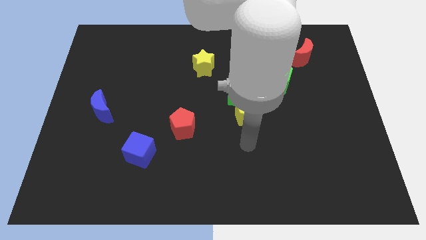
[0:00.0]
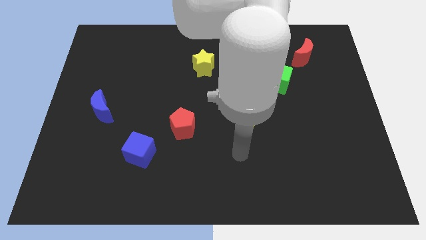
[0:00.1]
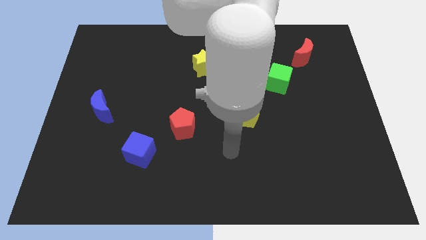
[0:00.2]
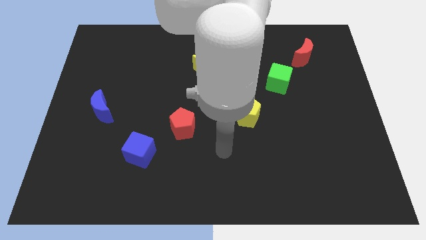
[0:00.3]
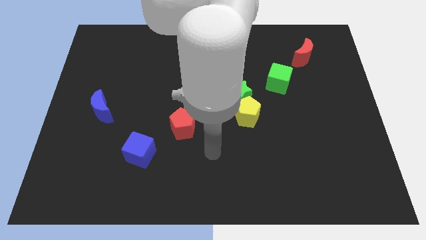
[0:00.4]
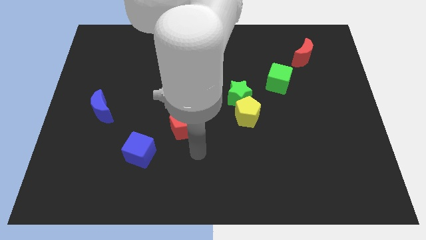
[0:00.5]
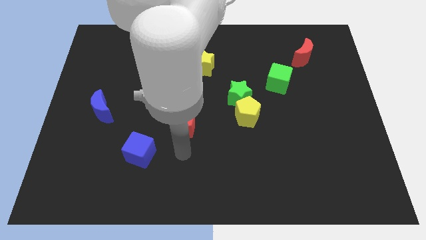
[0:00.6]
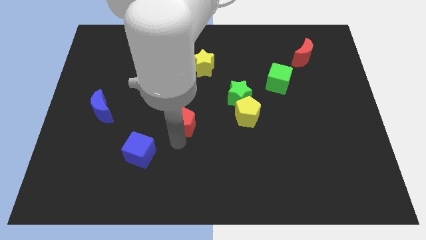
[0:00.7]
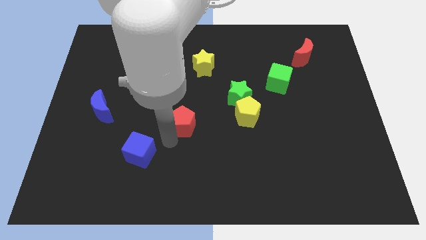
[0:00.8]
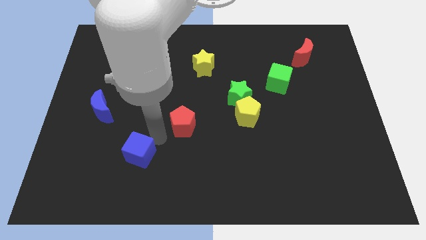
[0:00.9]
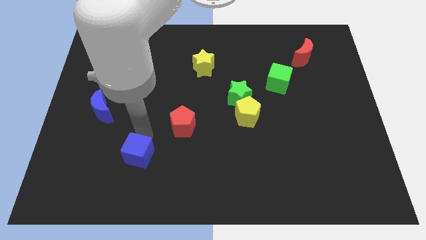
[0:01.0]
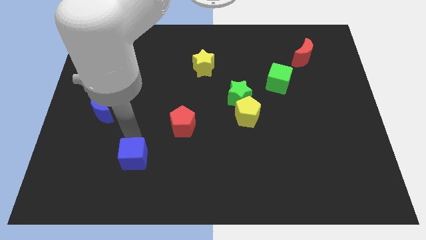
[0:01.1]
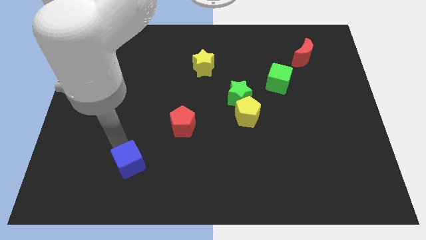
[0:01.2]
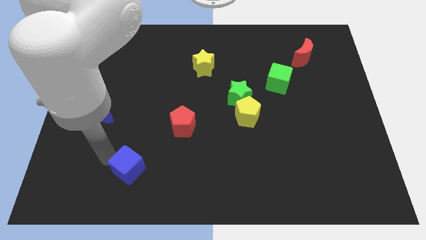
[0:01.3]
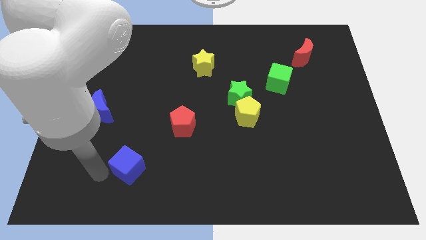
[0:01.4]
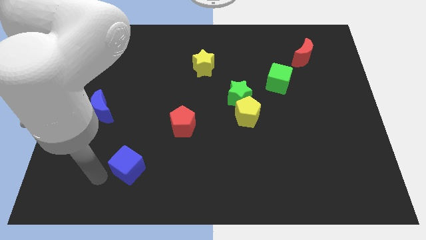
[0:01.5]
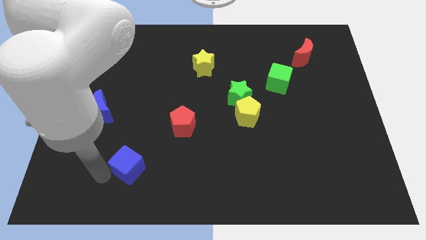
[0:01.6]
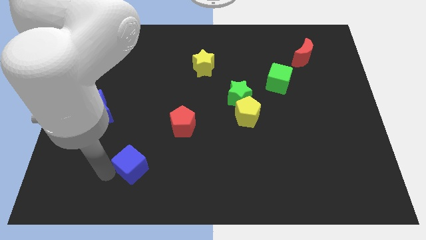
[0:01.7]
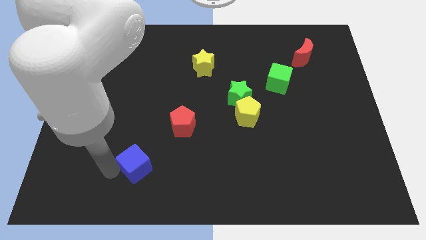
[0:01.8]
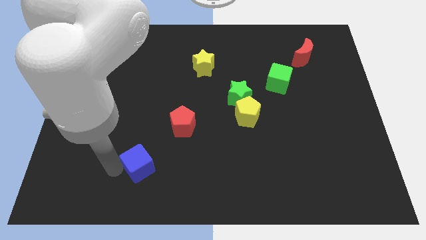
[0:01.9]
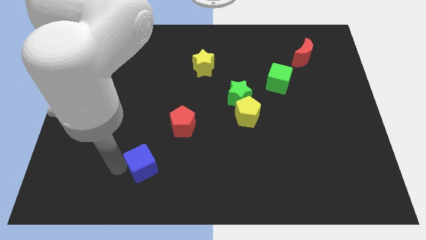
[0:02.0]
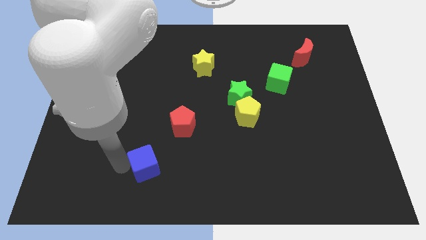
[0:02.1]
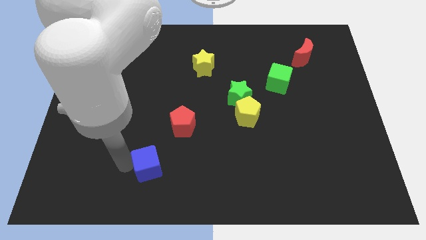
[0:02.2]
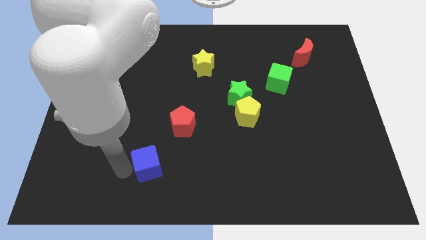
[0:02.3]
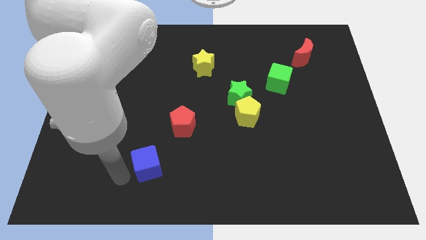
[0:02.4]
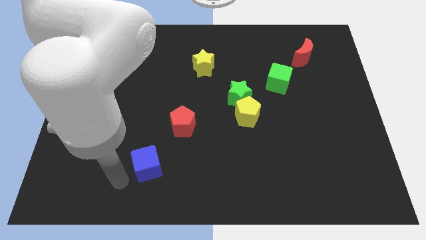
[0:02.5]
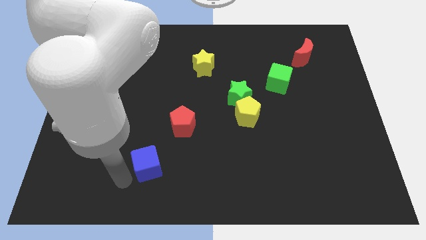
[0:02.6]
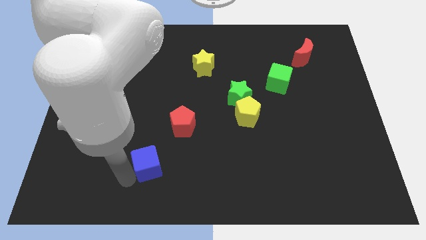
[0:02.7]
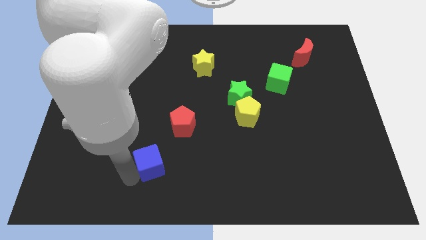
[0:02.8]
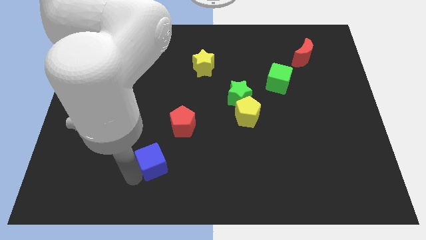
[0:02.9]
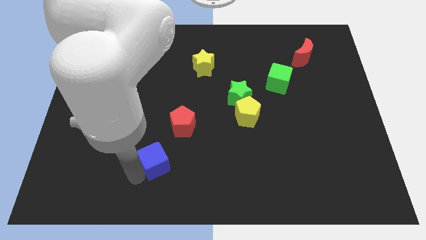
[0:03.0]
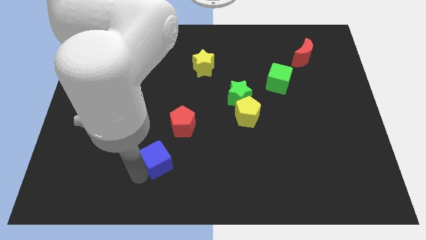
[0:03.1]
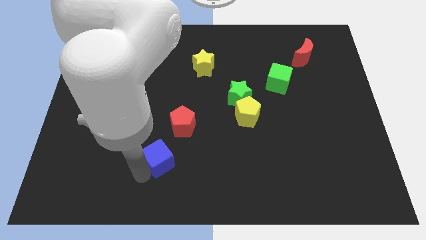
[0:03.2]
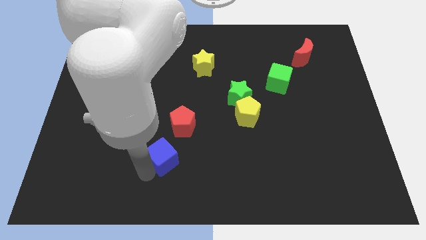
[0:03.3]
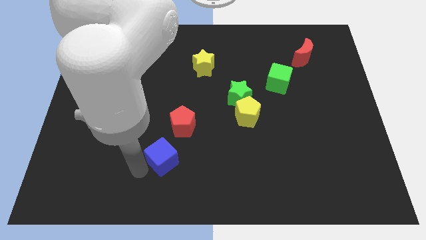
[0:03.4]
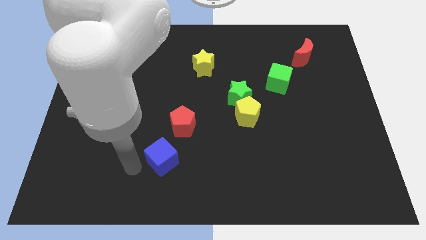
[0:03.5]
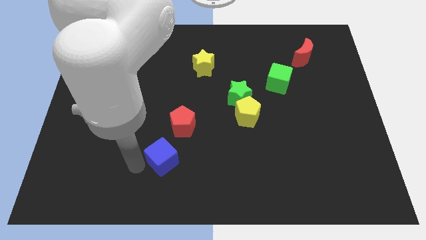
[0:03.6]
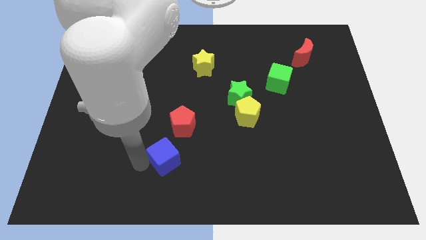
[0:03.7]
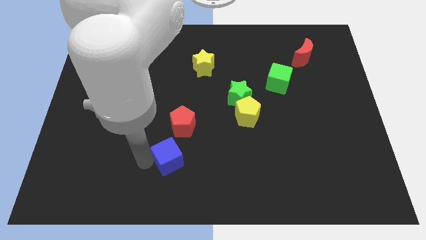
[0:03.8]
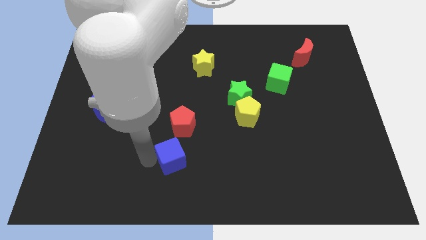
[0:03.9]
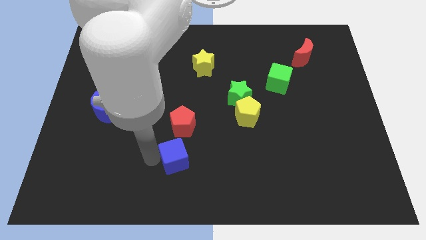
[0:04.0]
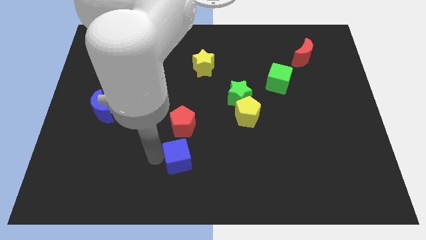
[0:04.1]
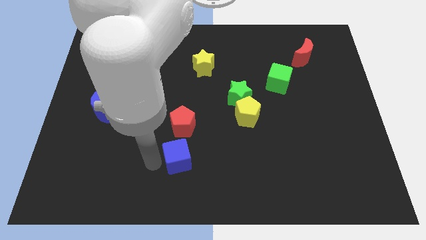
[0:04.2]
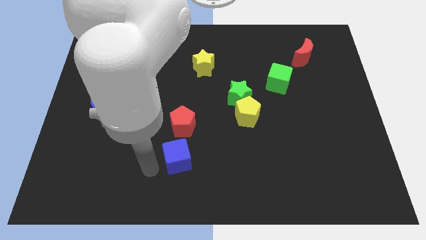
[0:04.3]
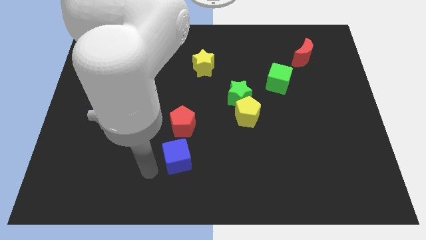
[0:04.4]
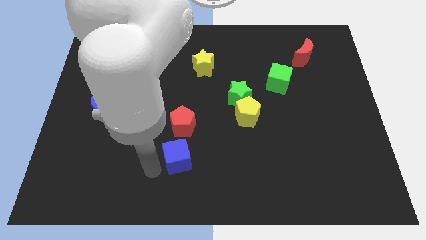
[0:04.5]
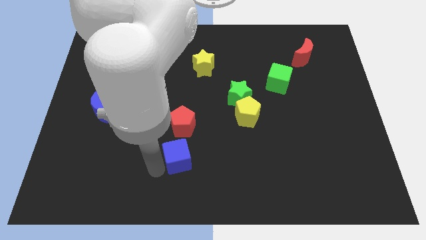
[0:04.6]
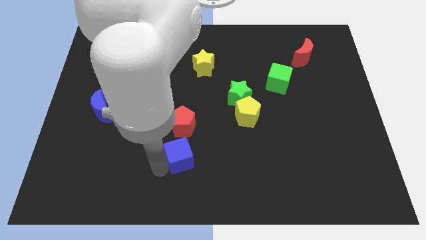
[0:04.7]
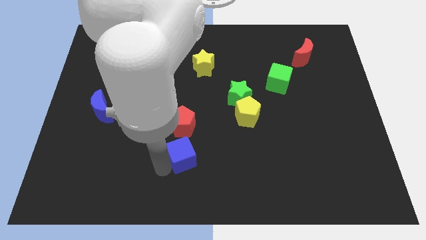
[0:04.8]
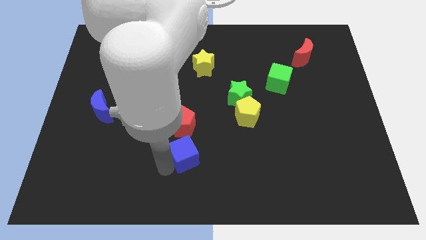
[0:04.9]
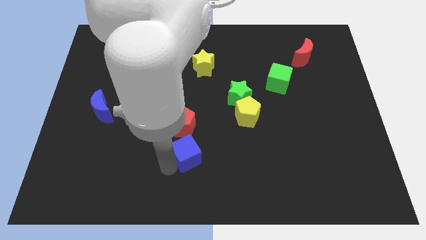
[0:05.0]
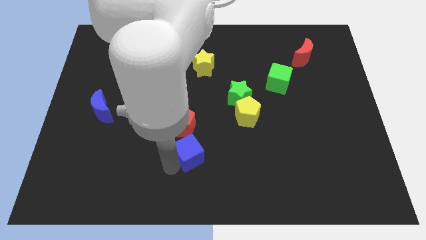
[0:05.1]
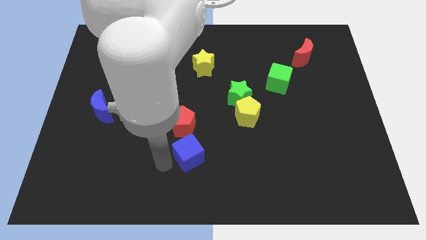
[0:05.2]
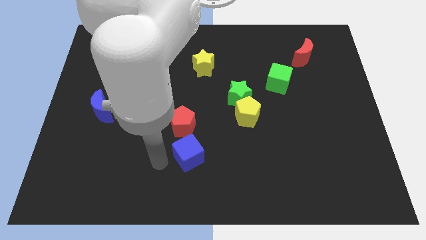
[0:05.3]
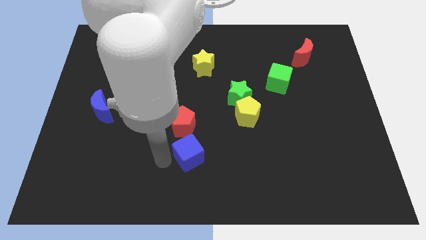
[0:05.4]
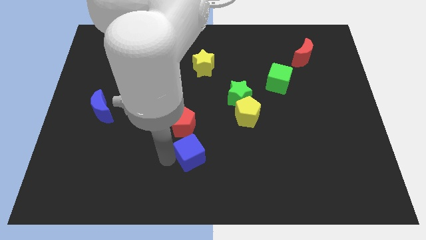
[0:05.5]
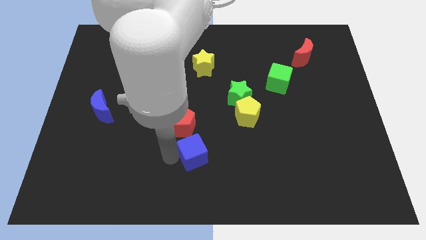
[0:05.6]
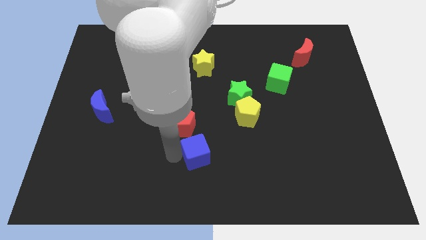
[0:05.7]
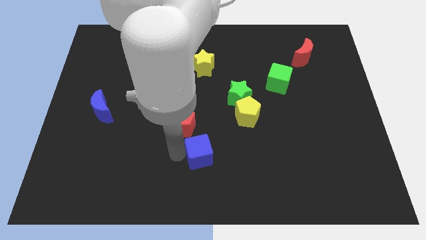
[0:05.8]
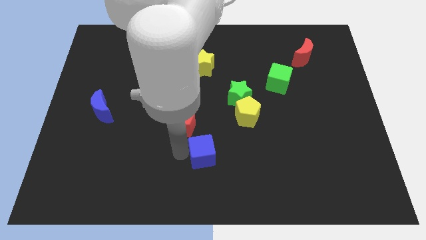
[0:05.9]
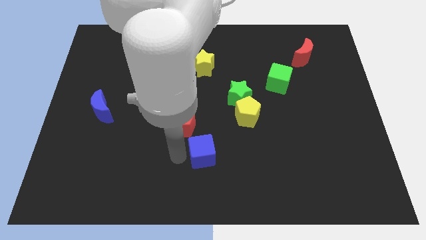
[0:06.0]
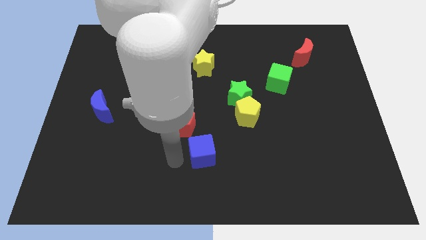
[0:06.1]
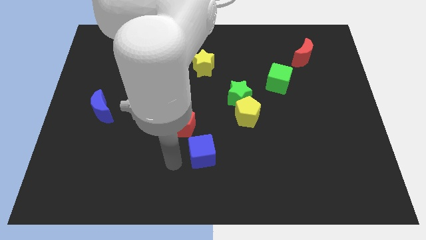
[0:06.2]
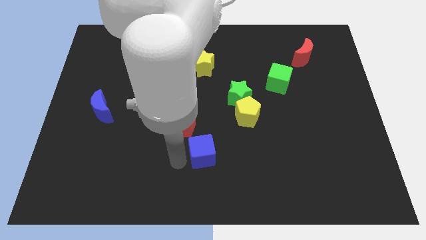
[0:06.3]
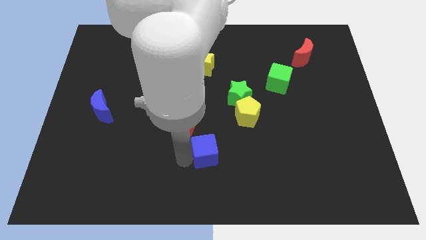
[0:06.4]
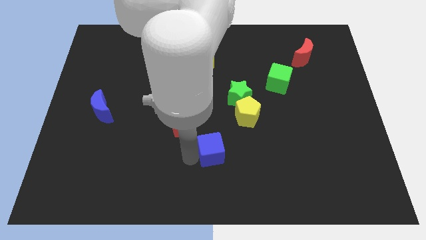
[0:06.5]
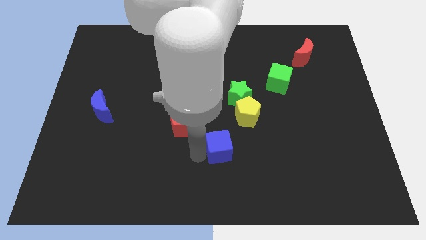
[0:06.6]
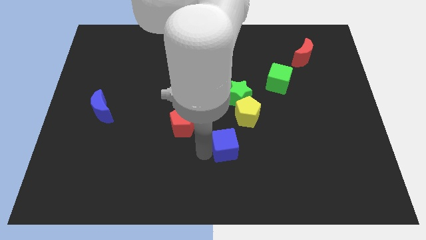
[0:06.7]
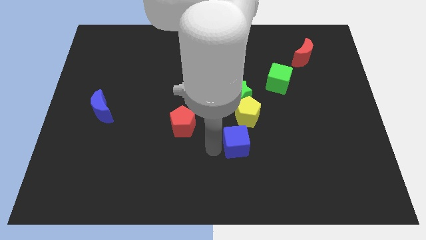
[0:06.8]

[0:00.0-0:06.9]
slide the blue cube right

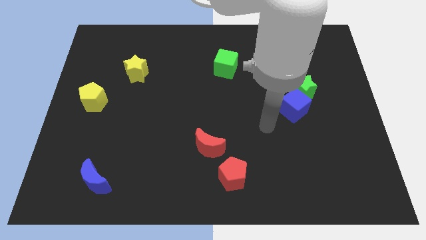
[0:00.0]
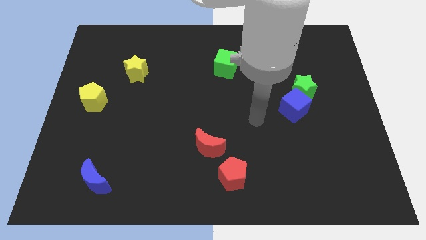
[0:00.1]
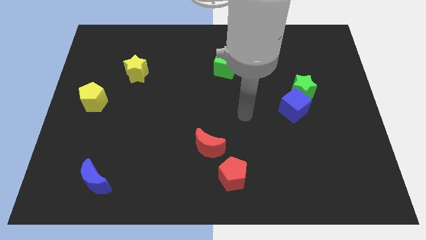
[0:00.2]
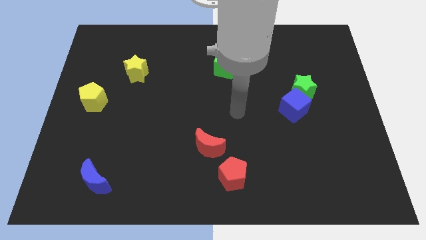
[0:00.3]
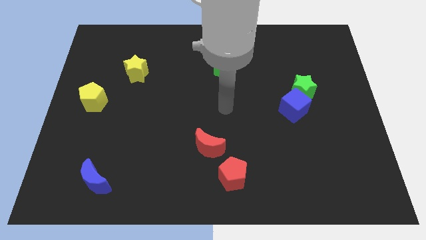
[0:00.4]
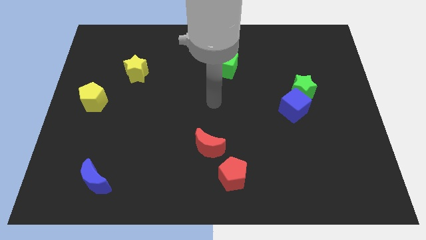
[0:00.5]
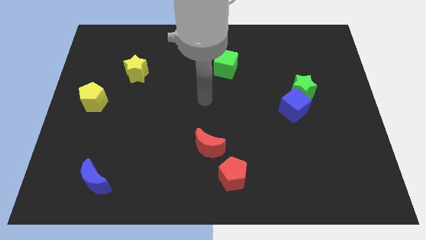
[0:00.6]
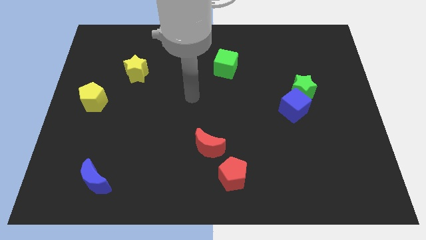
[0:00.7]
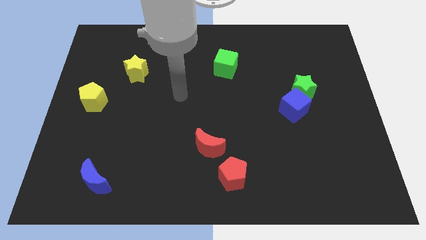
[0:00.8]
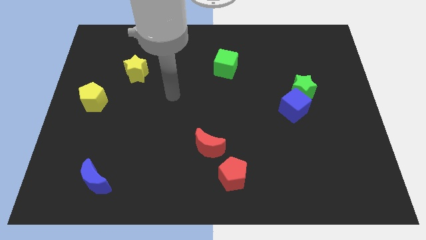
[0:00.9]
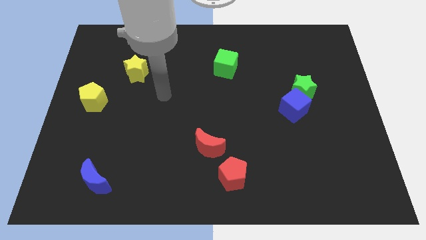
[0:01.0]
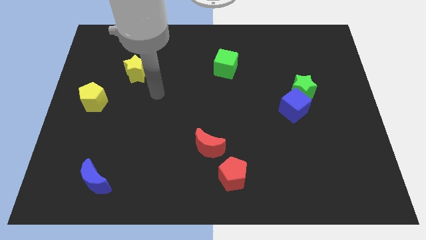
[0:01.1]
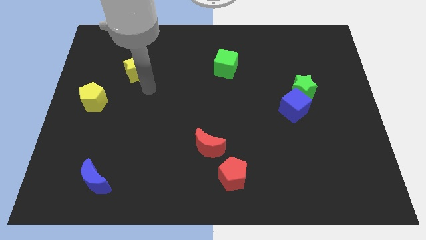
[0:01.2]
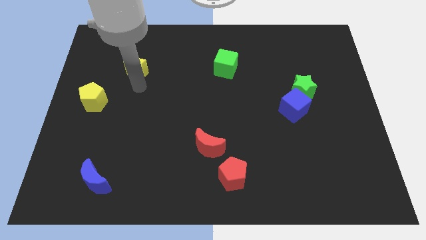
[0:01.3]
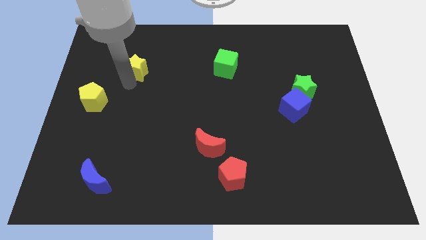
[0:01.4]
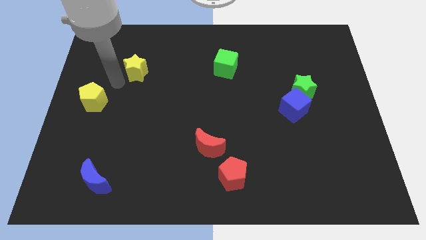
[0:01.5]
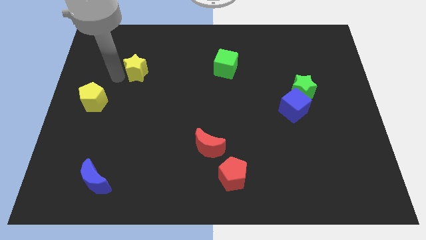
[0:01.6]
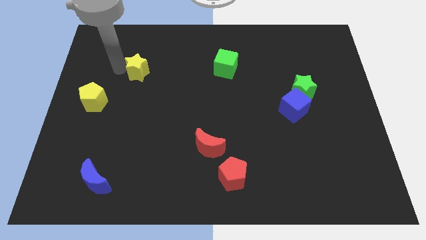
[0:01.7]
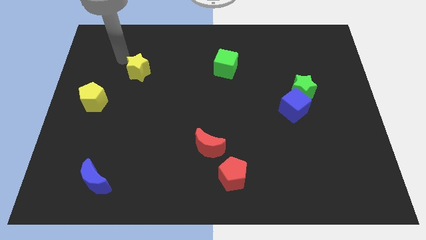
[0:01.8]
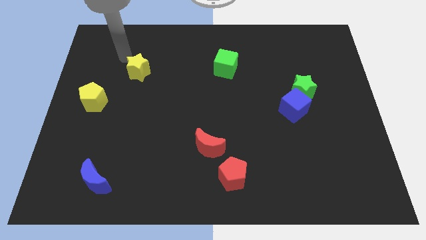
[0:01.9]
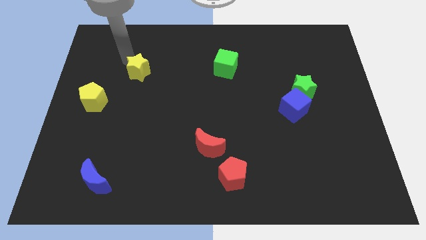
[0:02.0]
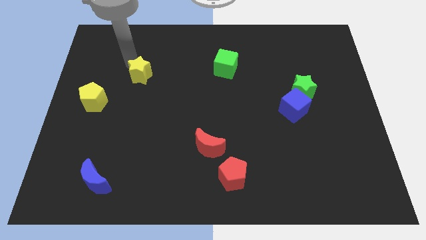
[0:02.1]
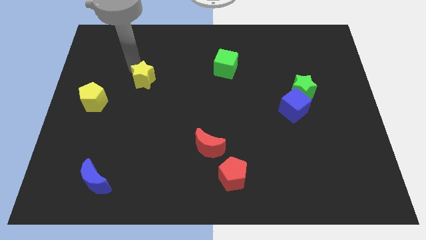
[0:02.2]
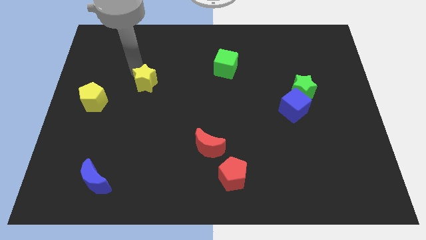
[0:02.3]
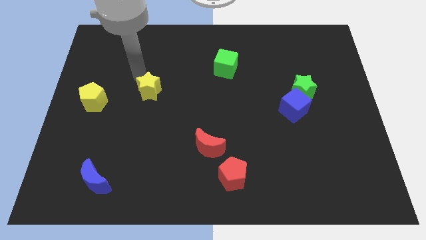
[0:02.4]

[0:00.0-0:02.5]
move the yellow star diagonally down and to the right slightly
